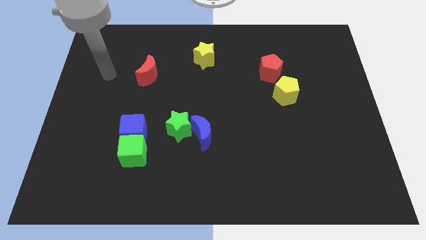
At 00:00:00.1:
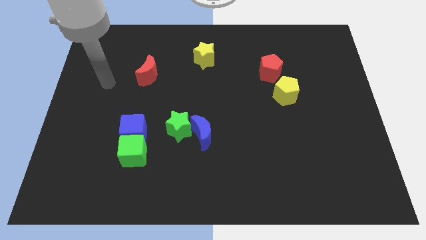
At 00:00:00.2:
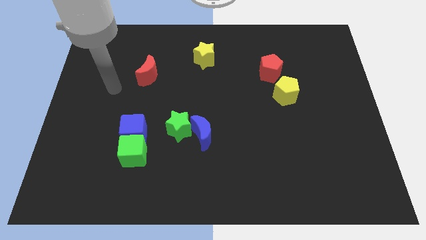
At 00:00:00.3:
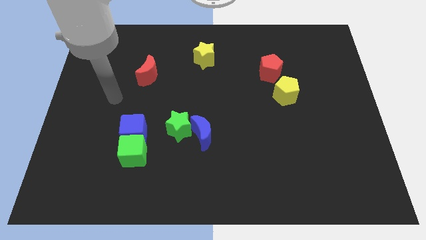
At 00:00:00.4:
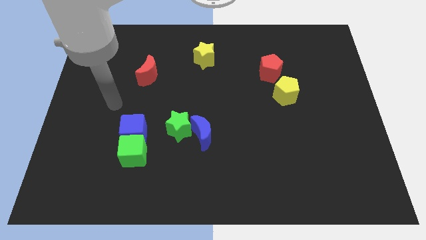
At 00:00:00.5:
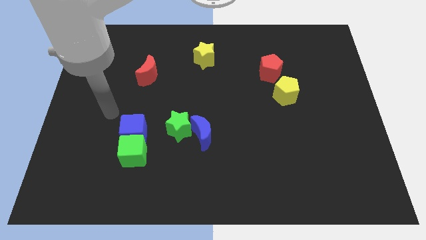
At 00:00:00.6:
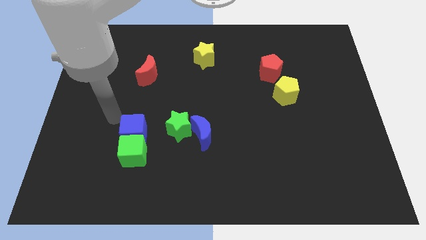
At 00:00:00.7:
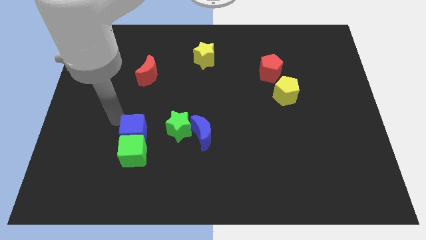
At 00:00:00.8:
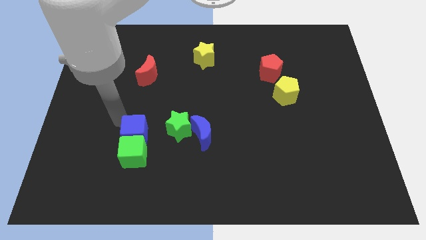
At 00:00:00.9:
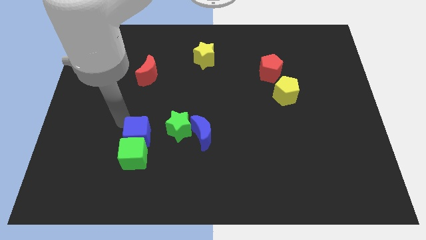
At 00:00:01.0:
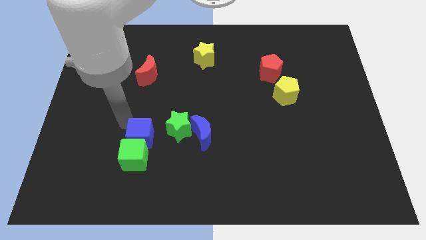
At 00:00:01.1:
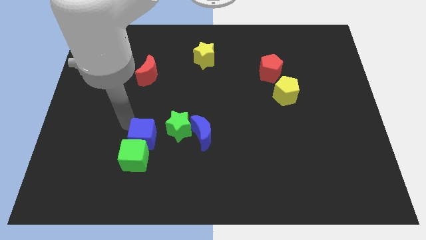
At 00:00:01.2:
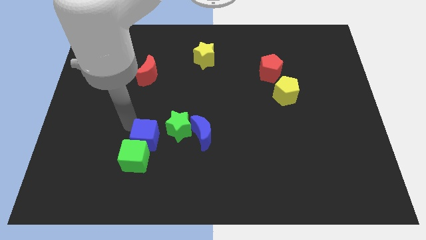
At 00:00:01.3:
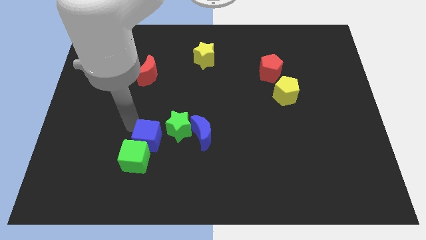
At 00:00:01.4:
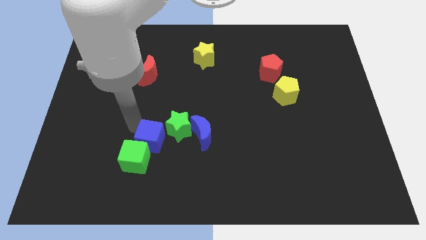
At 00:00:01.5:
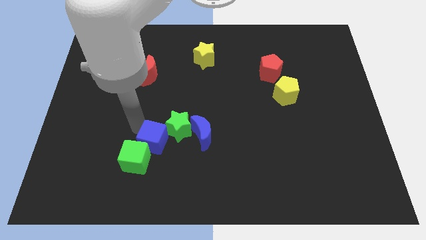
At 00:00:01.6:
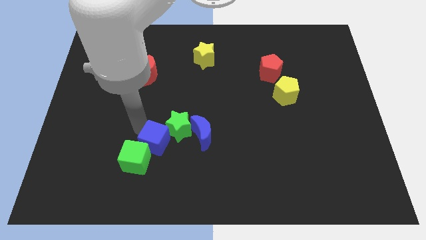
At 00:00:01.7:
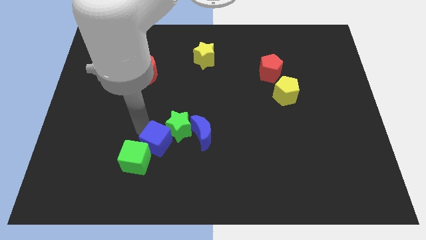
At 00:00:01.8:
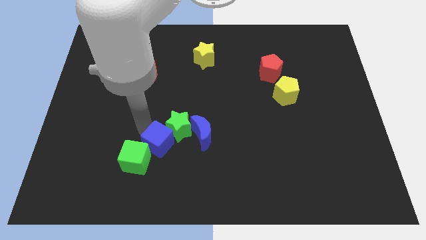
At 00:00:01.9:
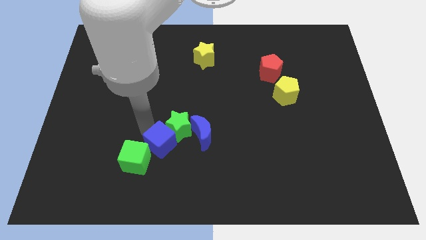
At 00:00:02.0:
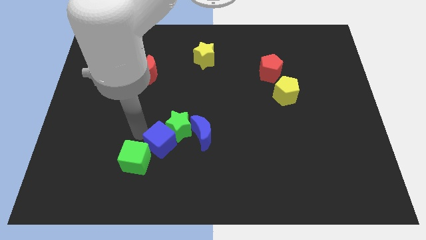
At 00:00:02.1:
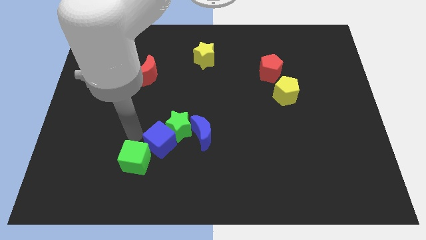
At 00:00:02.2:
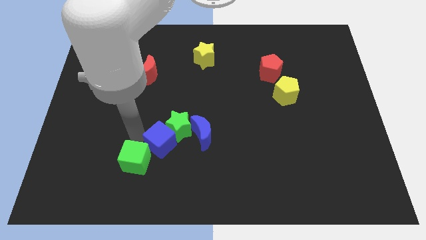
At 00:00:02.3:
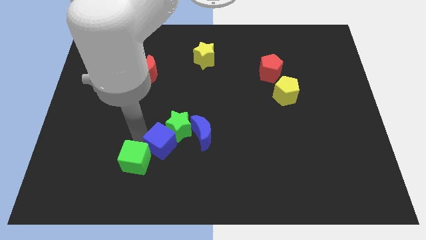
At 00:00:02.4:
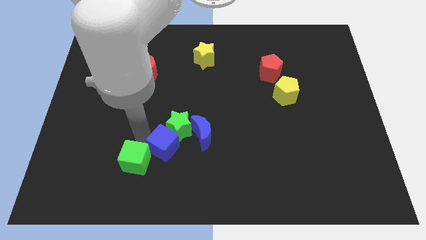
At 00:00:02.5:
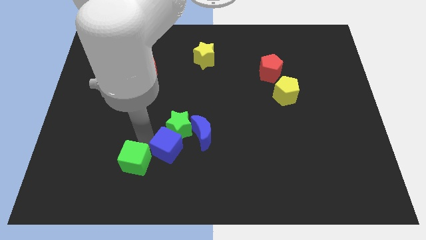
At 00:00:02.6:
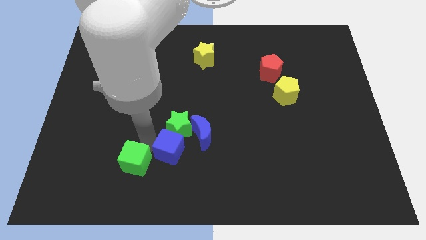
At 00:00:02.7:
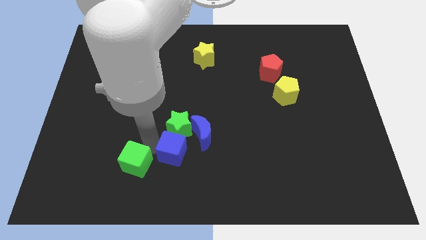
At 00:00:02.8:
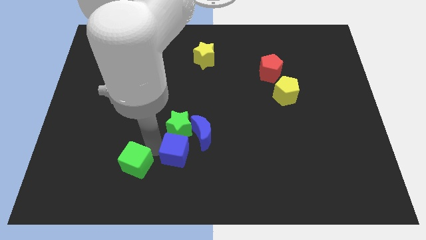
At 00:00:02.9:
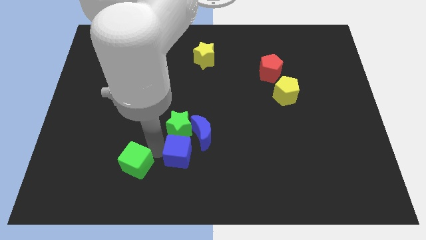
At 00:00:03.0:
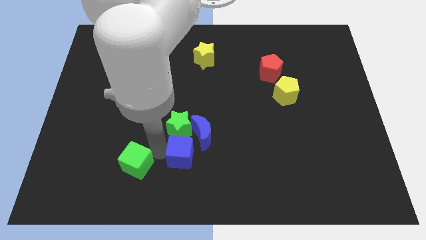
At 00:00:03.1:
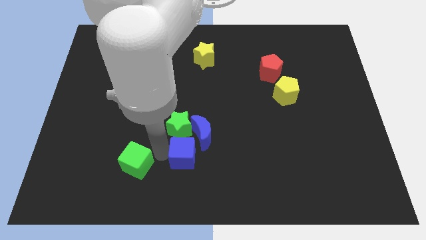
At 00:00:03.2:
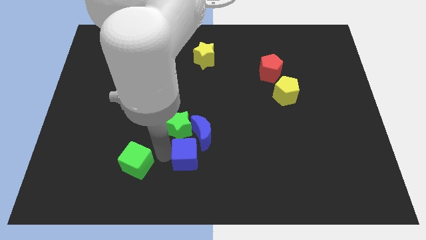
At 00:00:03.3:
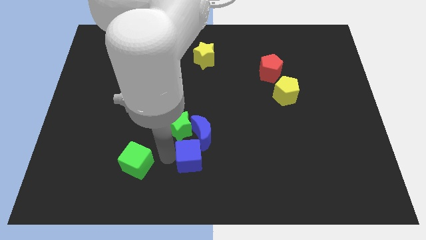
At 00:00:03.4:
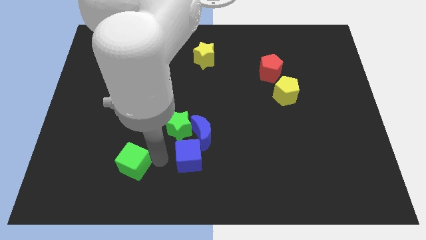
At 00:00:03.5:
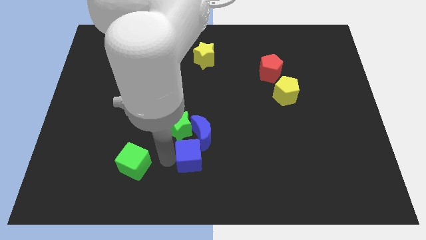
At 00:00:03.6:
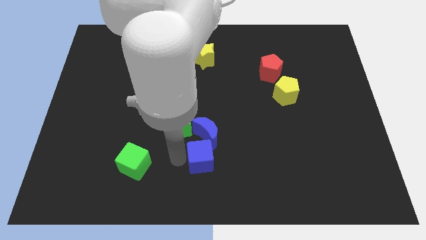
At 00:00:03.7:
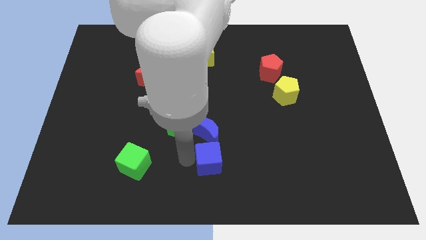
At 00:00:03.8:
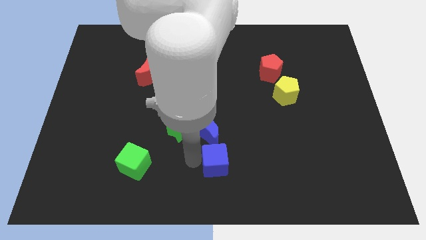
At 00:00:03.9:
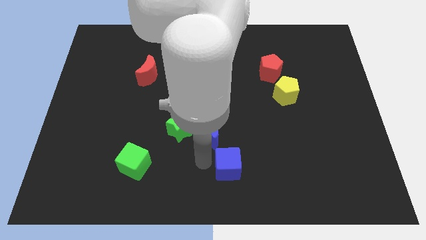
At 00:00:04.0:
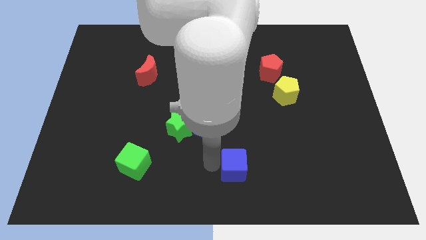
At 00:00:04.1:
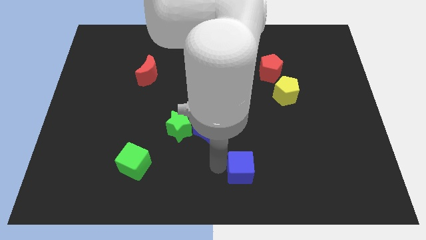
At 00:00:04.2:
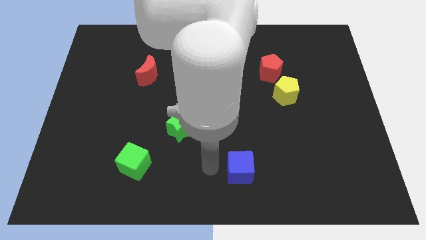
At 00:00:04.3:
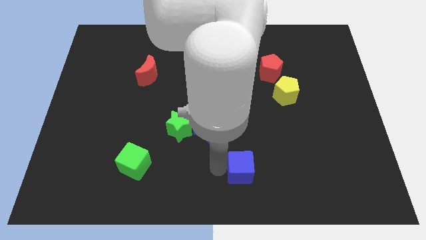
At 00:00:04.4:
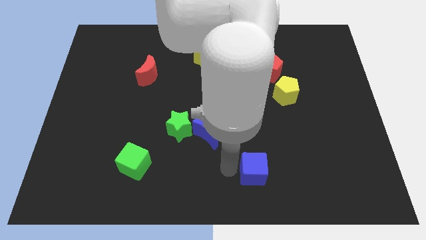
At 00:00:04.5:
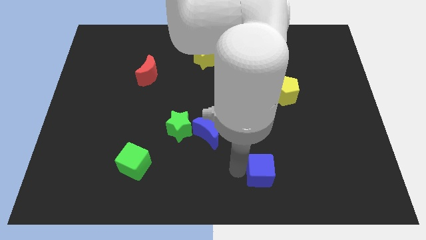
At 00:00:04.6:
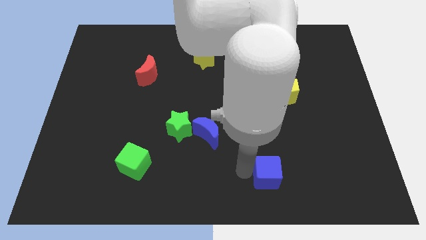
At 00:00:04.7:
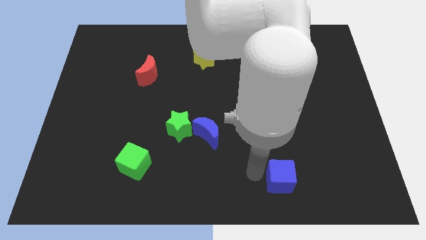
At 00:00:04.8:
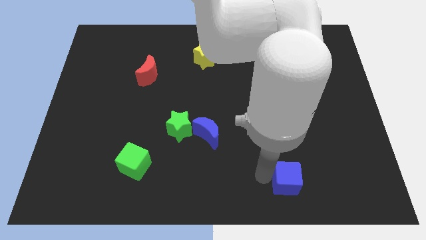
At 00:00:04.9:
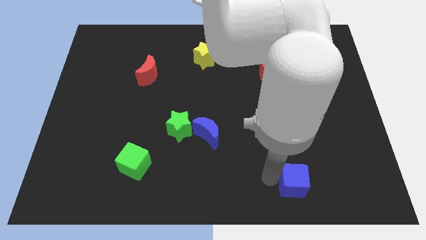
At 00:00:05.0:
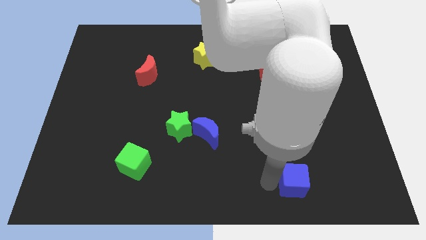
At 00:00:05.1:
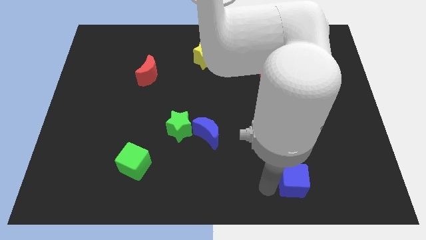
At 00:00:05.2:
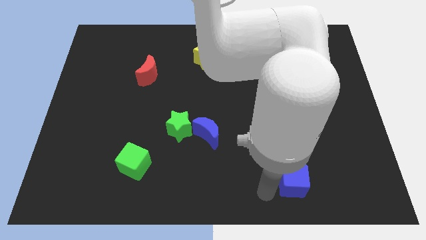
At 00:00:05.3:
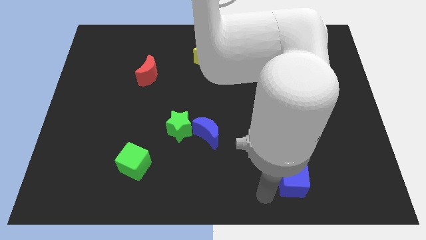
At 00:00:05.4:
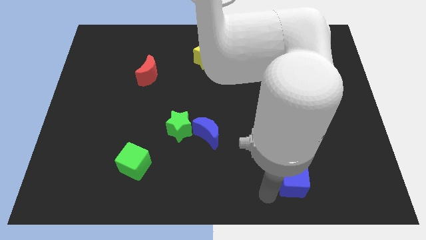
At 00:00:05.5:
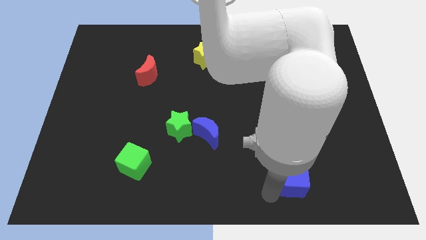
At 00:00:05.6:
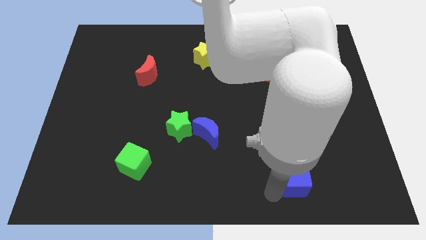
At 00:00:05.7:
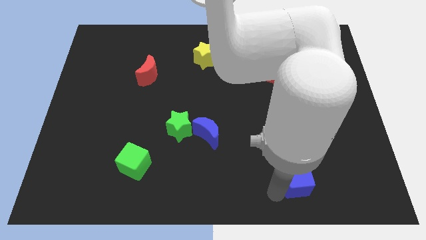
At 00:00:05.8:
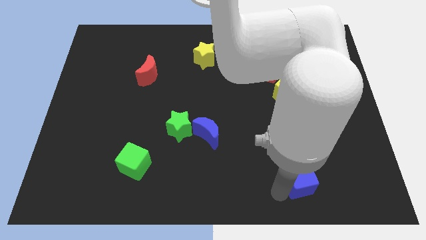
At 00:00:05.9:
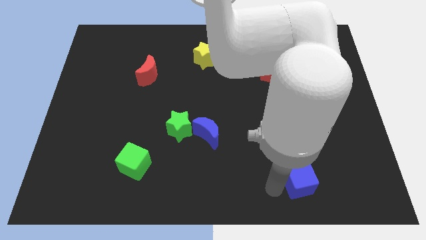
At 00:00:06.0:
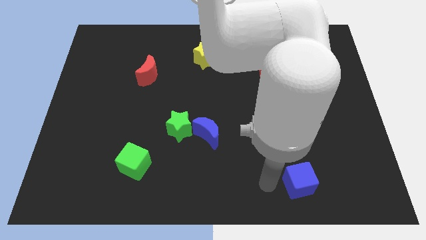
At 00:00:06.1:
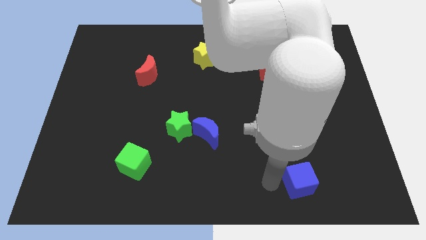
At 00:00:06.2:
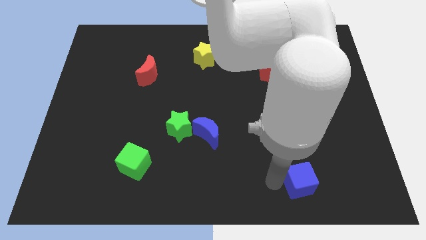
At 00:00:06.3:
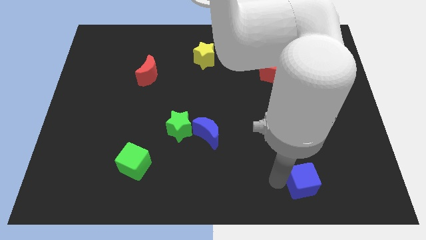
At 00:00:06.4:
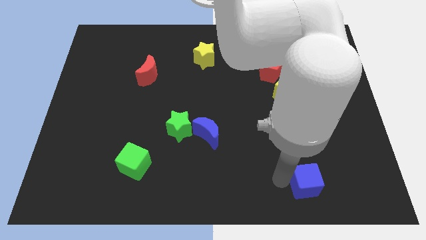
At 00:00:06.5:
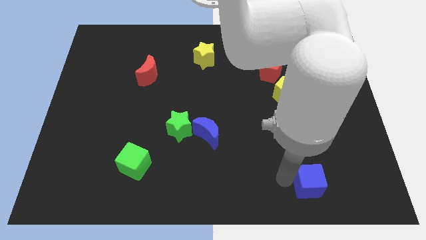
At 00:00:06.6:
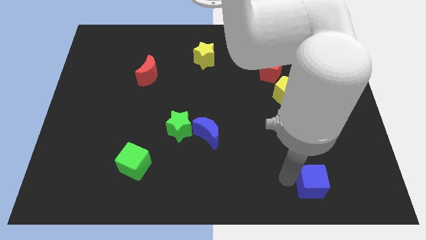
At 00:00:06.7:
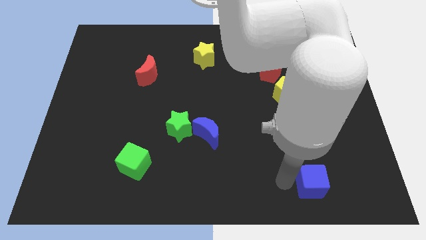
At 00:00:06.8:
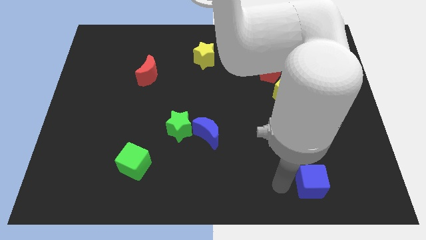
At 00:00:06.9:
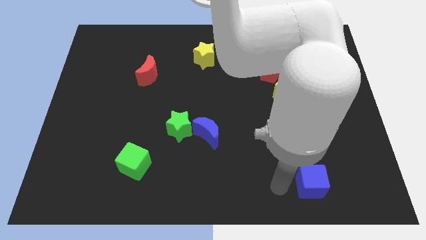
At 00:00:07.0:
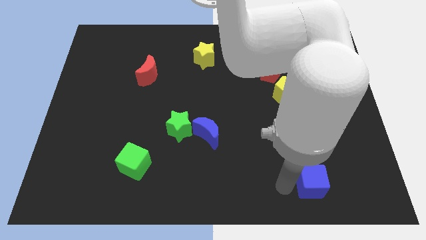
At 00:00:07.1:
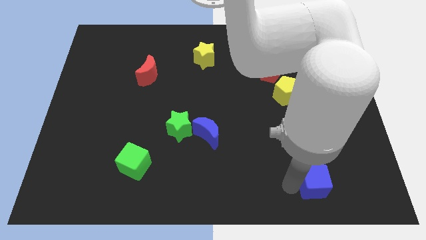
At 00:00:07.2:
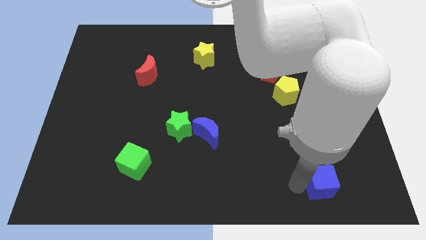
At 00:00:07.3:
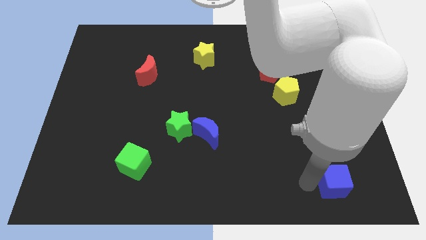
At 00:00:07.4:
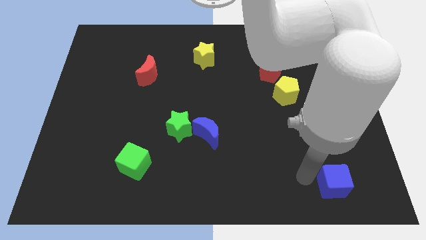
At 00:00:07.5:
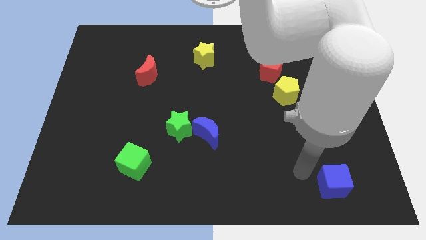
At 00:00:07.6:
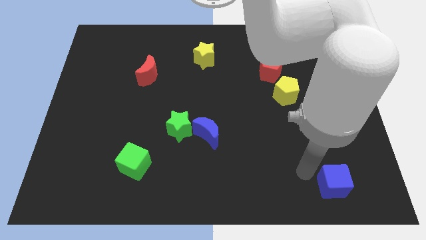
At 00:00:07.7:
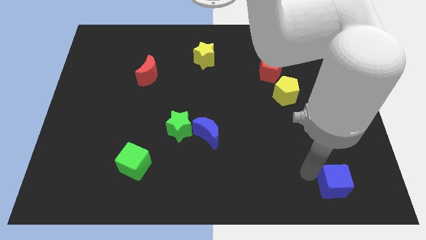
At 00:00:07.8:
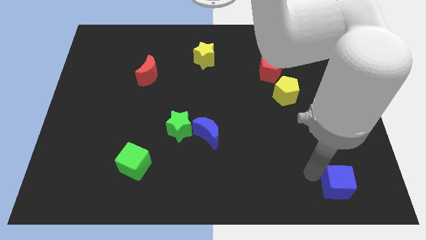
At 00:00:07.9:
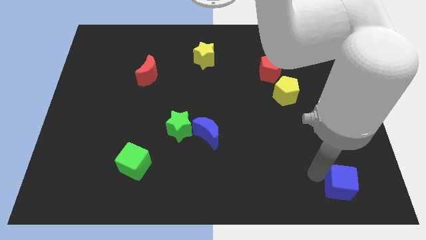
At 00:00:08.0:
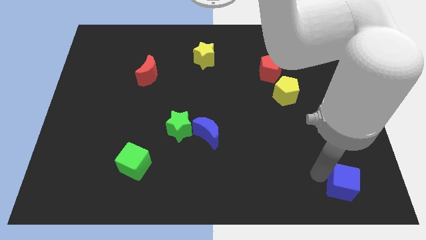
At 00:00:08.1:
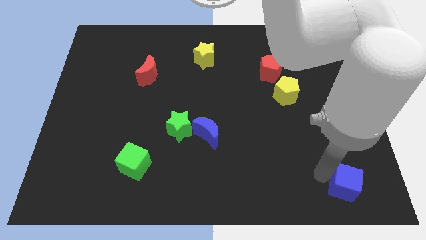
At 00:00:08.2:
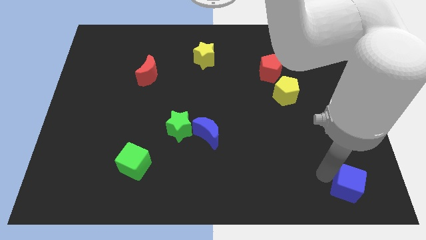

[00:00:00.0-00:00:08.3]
put the blue cube to the bottom right of the board
